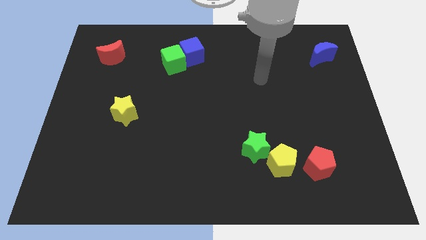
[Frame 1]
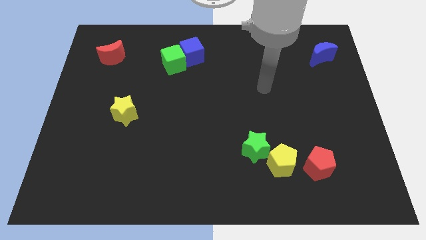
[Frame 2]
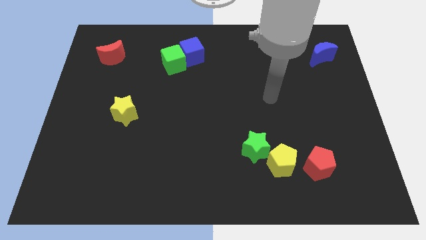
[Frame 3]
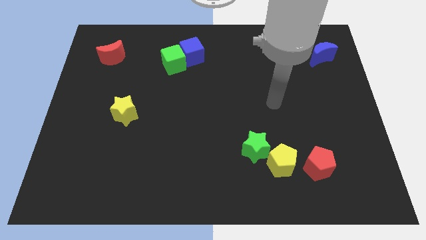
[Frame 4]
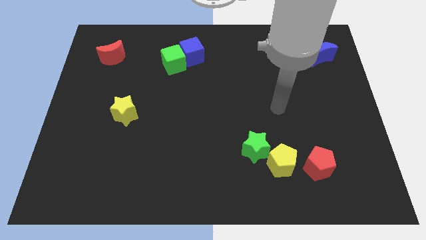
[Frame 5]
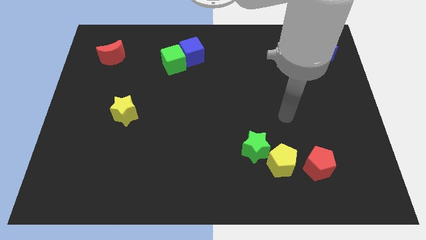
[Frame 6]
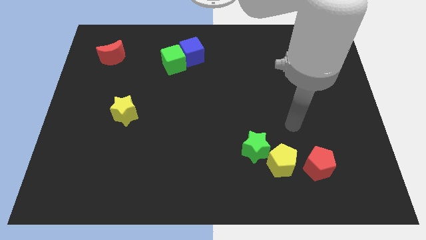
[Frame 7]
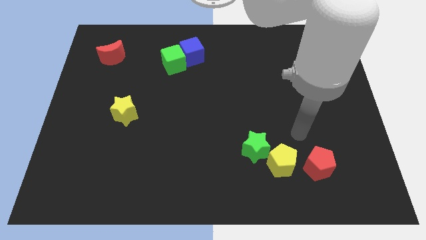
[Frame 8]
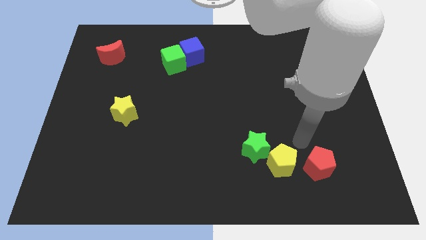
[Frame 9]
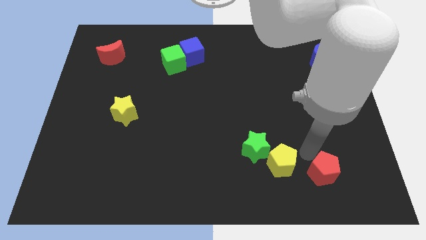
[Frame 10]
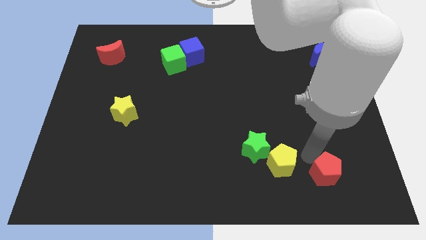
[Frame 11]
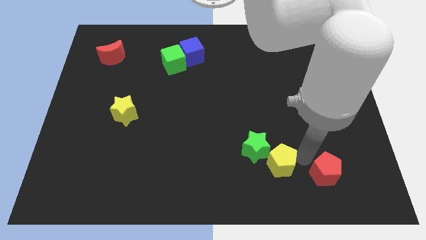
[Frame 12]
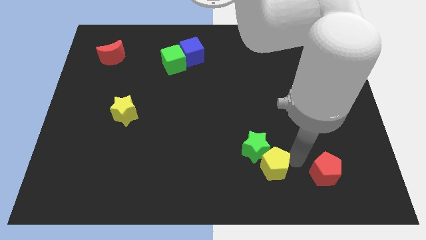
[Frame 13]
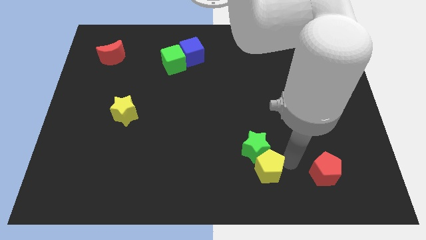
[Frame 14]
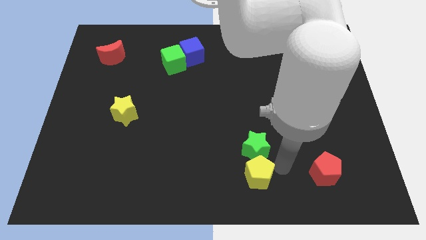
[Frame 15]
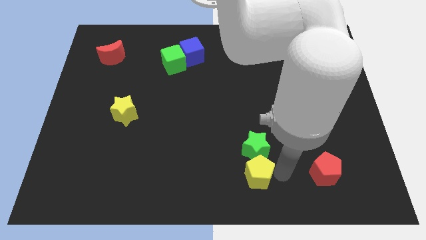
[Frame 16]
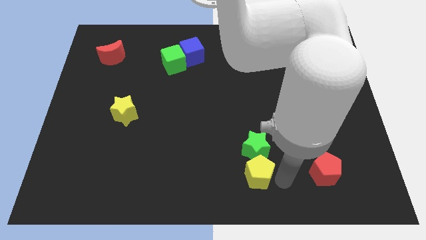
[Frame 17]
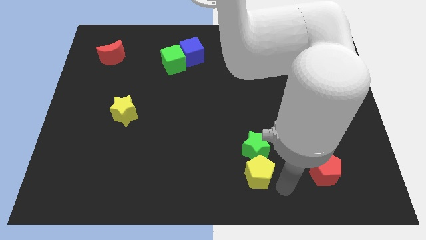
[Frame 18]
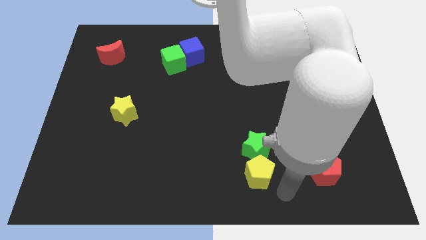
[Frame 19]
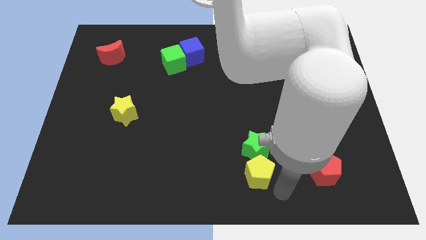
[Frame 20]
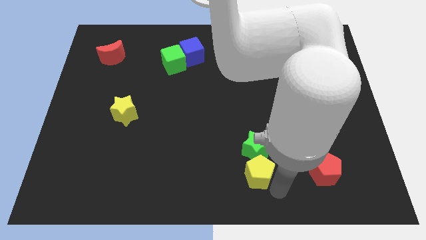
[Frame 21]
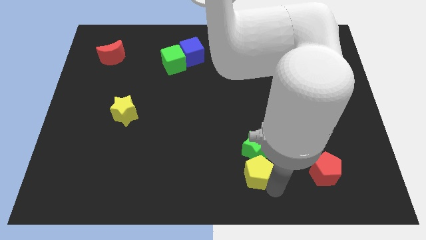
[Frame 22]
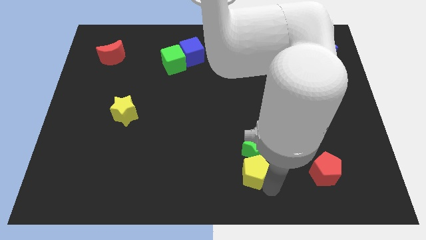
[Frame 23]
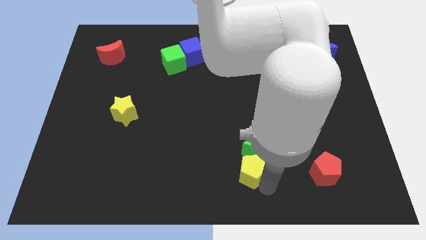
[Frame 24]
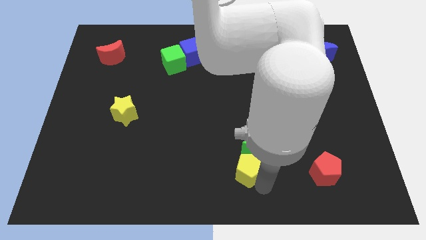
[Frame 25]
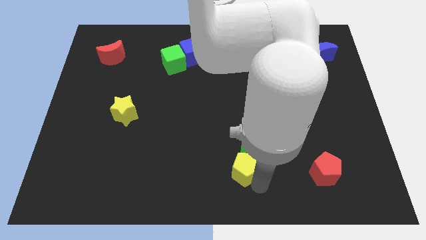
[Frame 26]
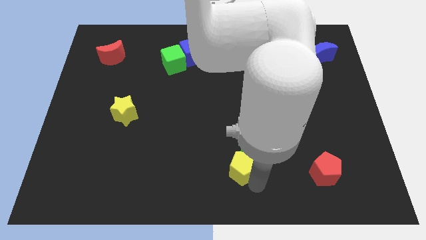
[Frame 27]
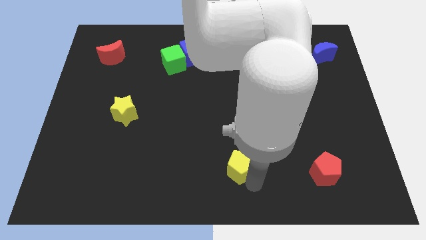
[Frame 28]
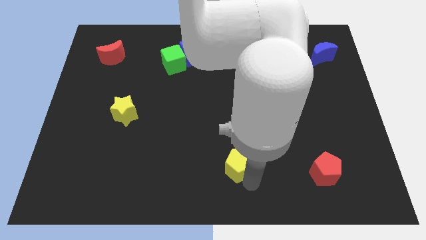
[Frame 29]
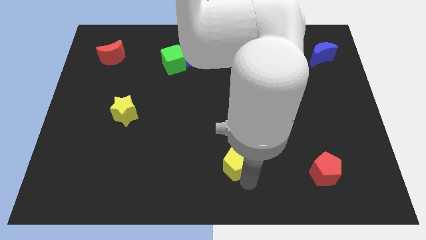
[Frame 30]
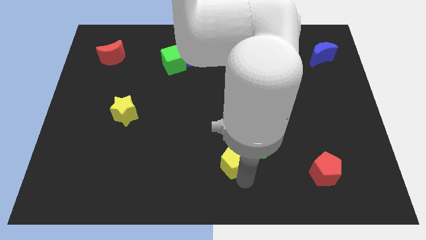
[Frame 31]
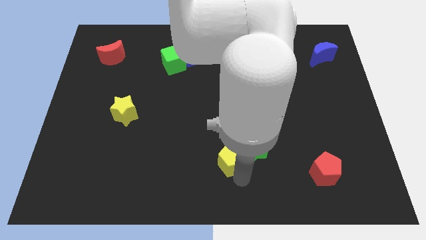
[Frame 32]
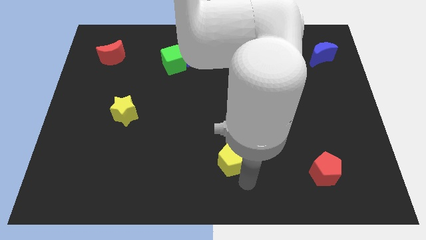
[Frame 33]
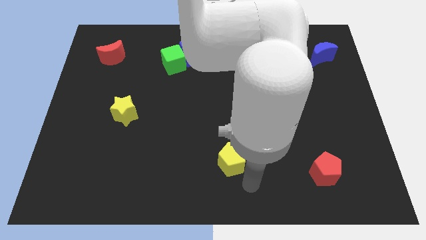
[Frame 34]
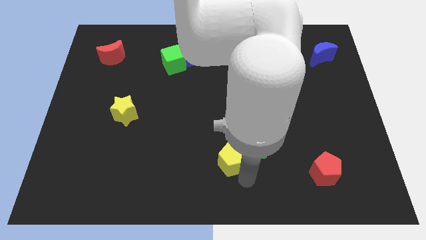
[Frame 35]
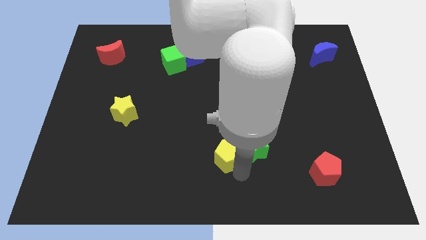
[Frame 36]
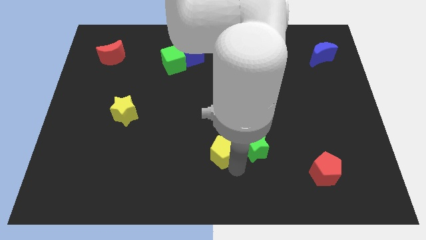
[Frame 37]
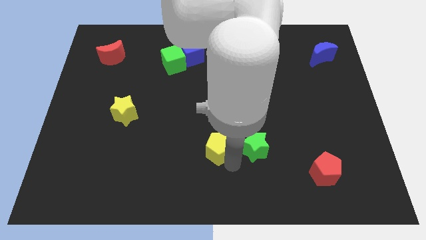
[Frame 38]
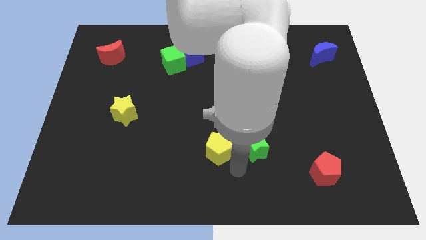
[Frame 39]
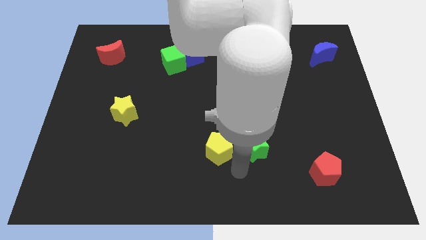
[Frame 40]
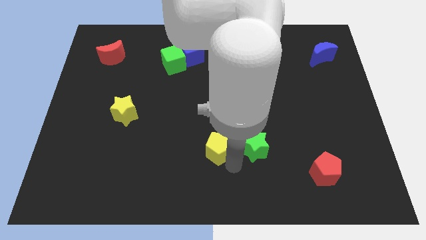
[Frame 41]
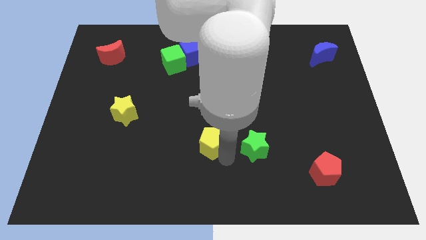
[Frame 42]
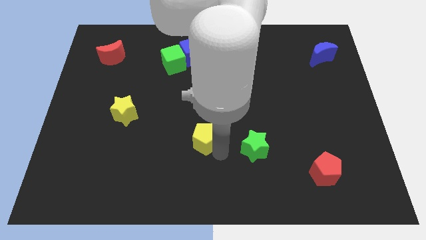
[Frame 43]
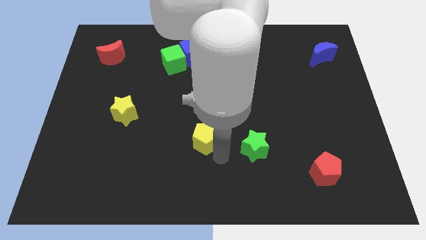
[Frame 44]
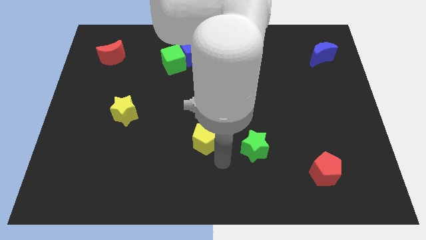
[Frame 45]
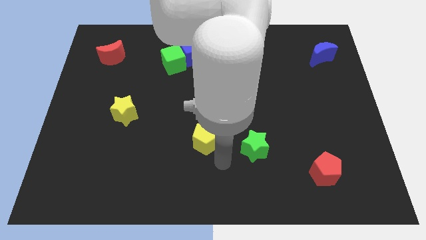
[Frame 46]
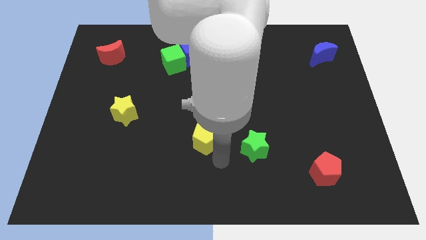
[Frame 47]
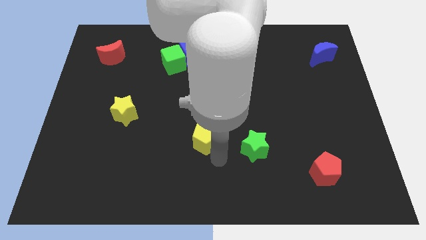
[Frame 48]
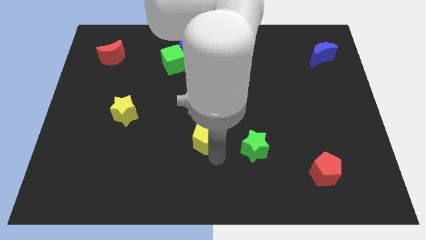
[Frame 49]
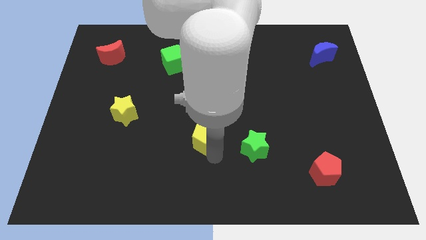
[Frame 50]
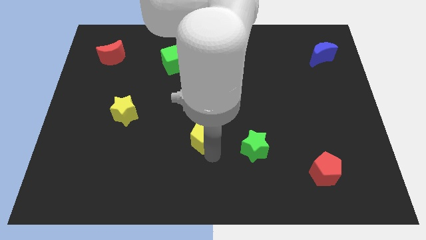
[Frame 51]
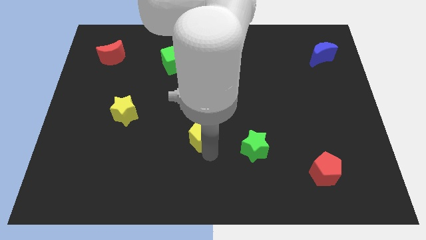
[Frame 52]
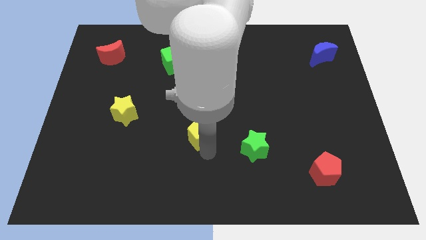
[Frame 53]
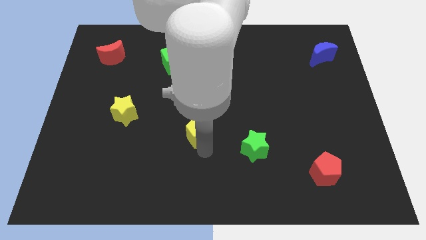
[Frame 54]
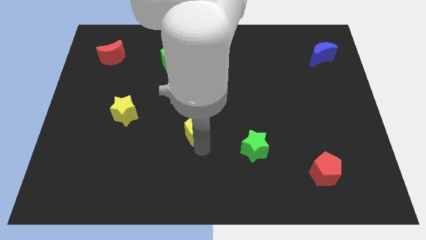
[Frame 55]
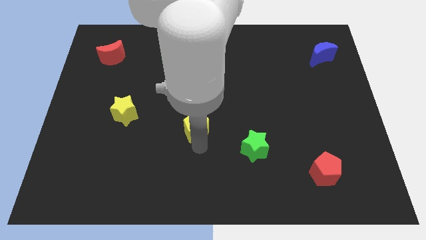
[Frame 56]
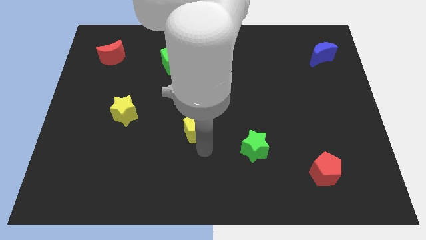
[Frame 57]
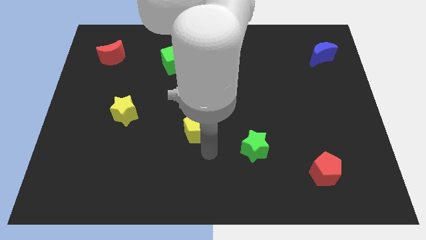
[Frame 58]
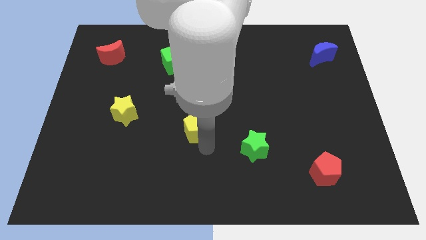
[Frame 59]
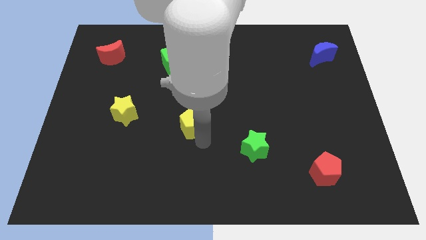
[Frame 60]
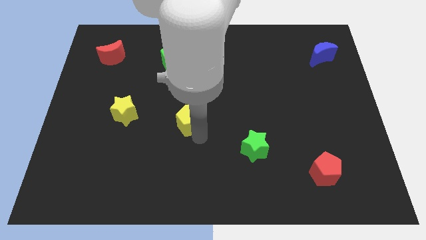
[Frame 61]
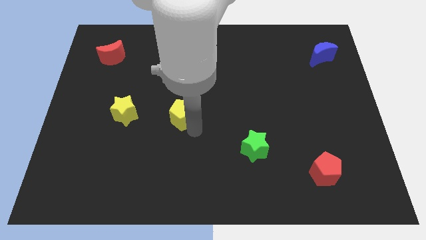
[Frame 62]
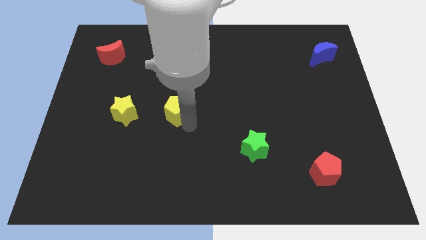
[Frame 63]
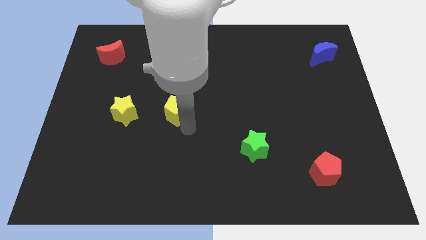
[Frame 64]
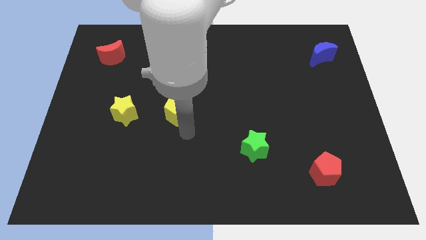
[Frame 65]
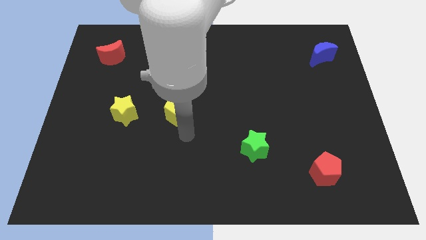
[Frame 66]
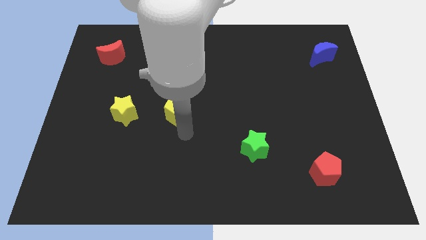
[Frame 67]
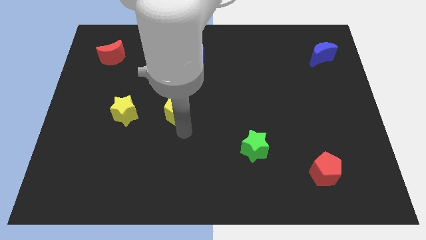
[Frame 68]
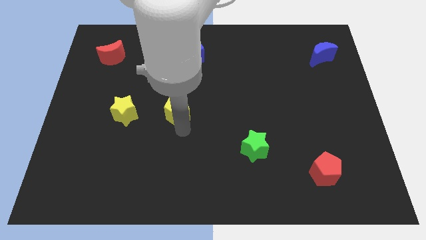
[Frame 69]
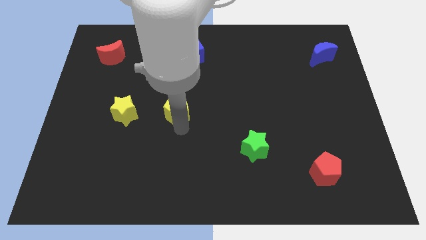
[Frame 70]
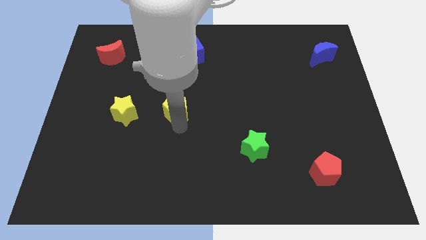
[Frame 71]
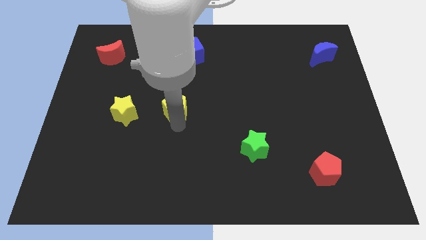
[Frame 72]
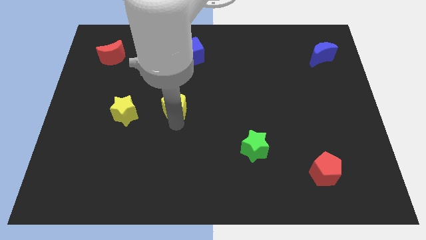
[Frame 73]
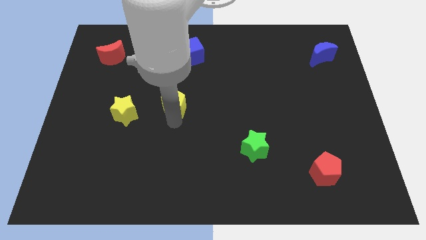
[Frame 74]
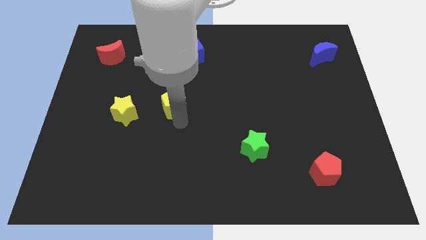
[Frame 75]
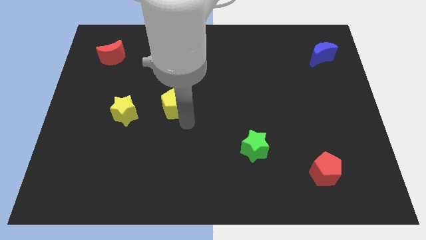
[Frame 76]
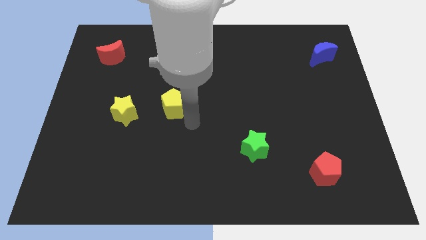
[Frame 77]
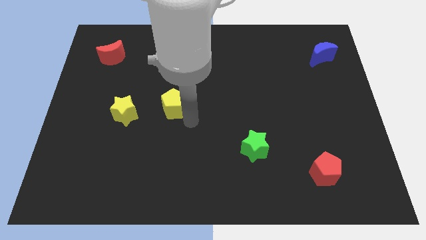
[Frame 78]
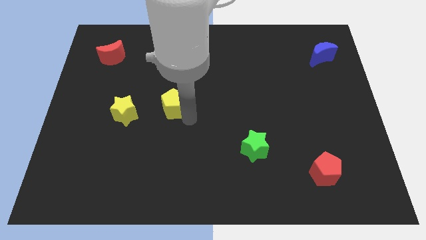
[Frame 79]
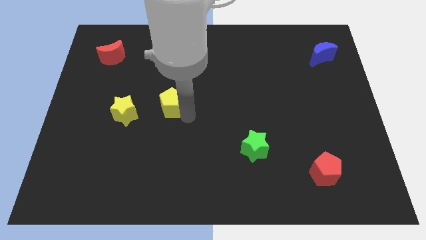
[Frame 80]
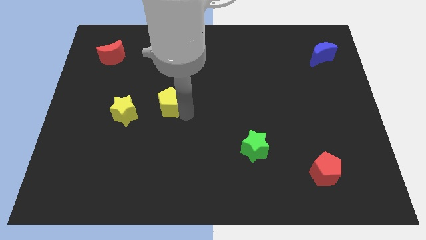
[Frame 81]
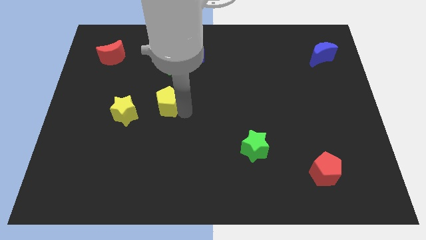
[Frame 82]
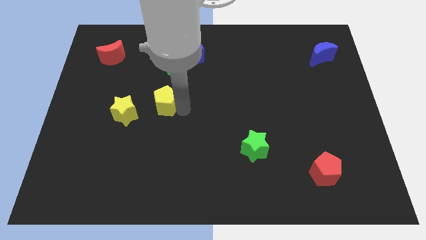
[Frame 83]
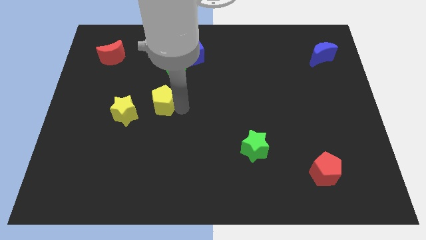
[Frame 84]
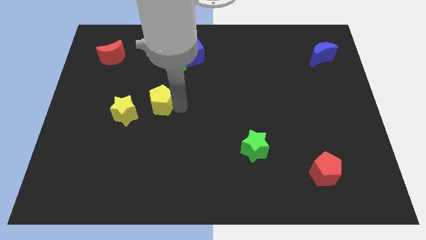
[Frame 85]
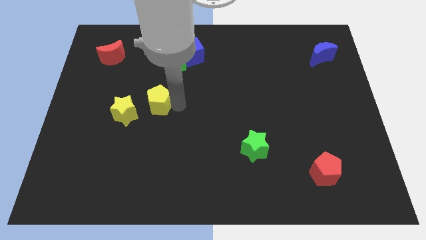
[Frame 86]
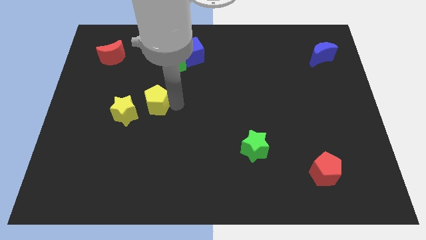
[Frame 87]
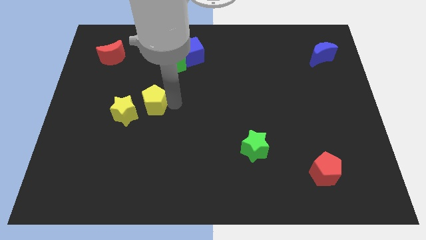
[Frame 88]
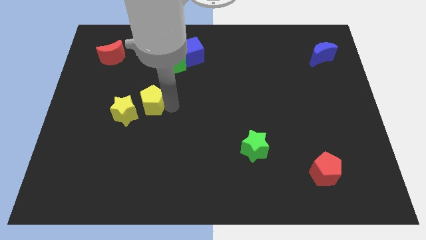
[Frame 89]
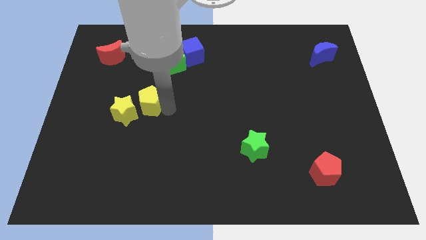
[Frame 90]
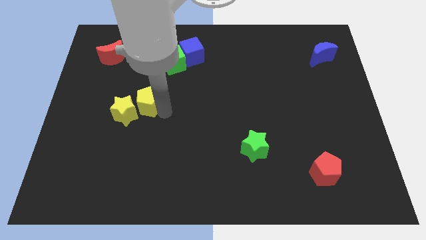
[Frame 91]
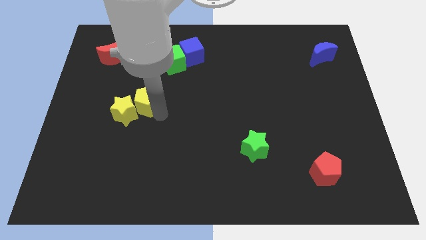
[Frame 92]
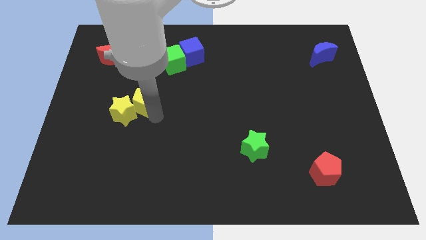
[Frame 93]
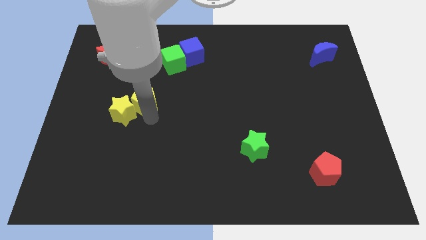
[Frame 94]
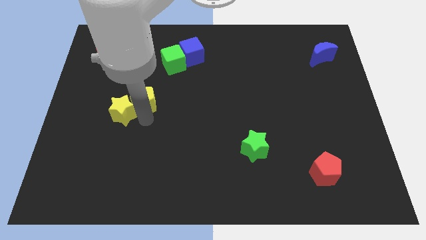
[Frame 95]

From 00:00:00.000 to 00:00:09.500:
push the yellow pentagon to the top side of the yellow star
